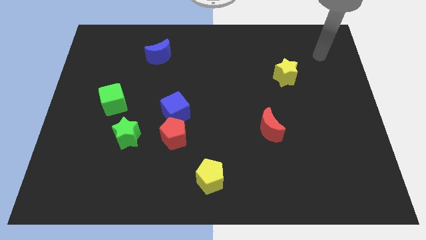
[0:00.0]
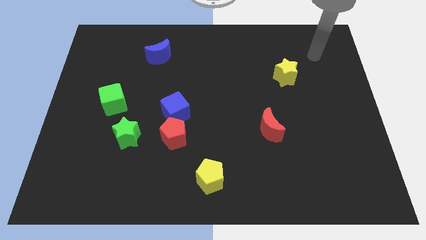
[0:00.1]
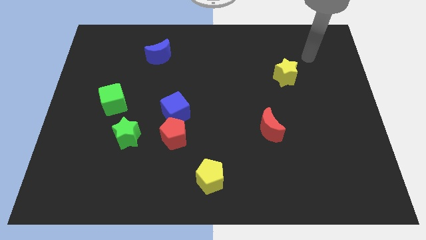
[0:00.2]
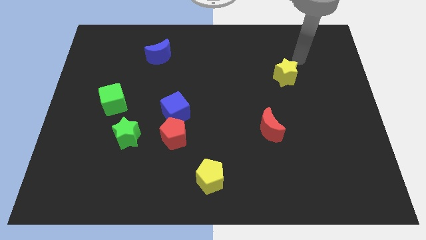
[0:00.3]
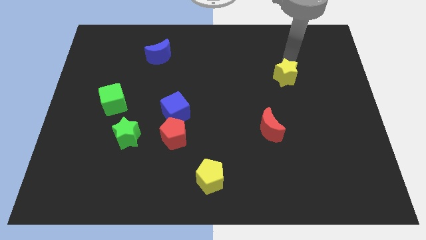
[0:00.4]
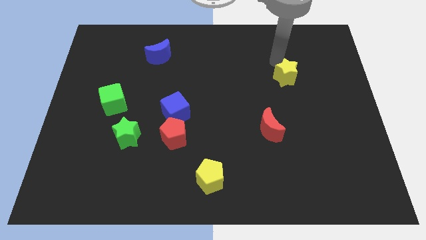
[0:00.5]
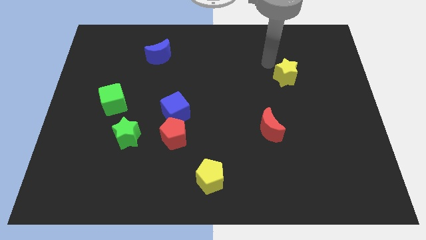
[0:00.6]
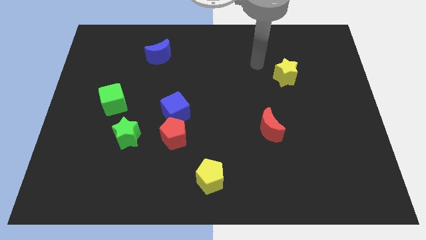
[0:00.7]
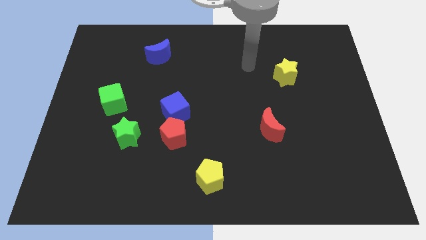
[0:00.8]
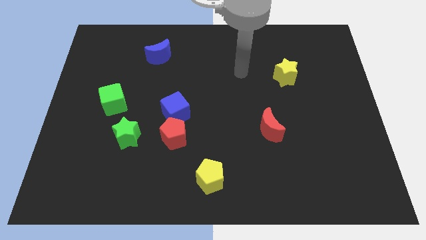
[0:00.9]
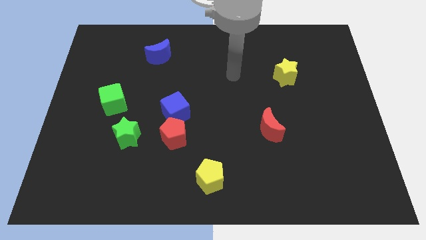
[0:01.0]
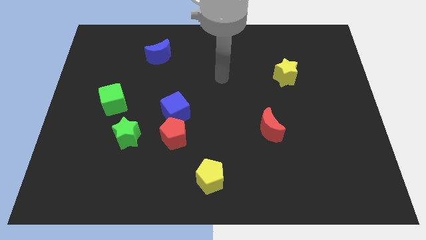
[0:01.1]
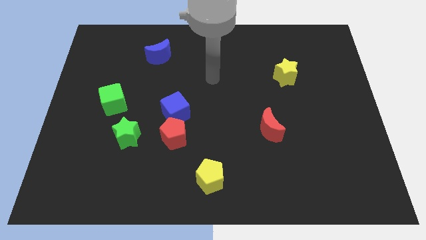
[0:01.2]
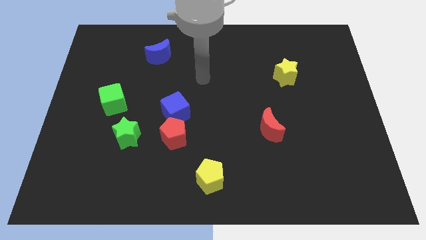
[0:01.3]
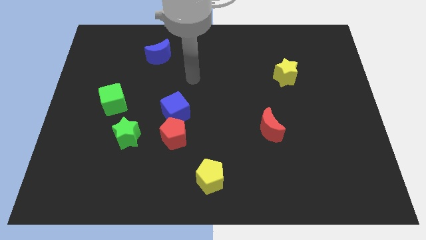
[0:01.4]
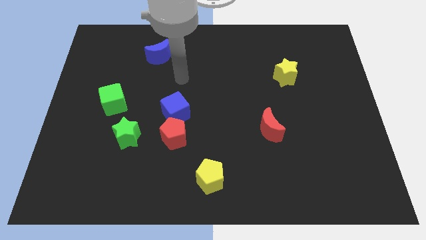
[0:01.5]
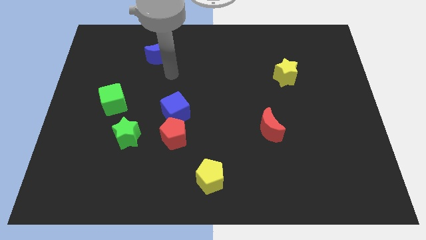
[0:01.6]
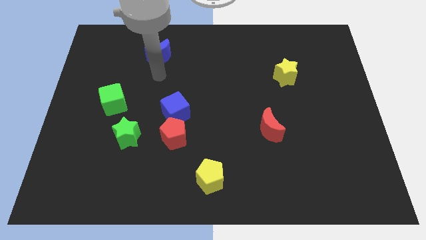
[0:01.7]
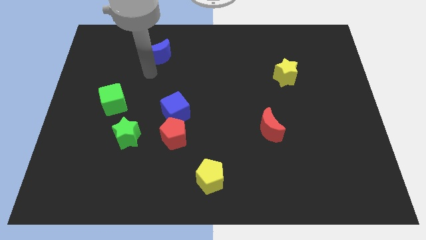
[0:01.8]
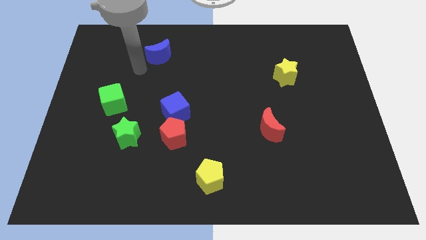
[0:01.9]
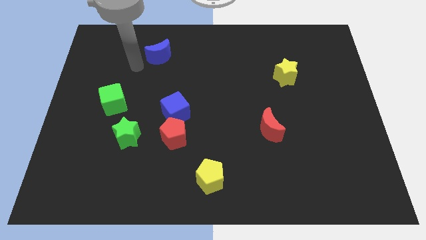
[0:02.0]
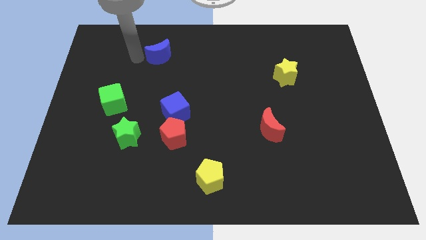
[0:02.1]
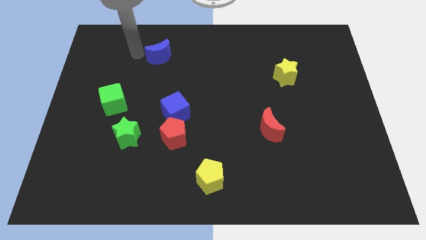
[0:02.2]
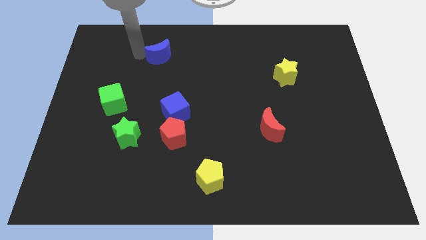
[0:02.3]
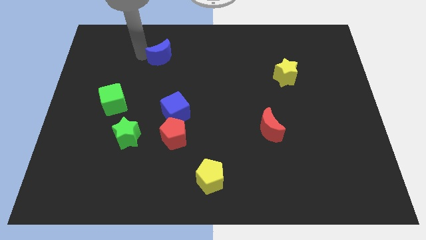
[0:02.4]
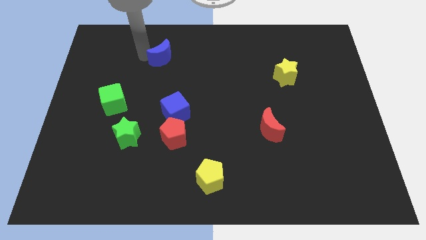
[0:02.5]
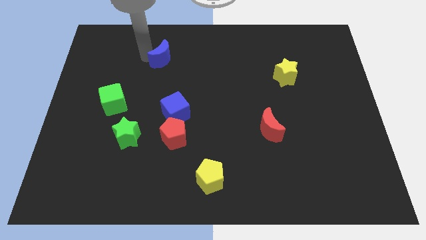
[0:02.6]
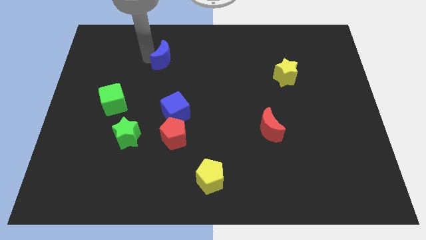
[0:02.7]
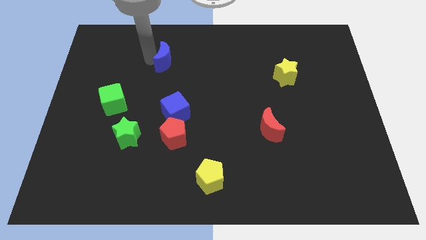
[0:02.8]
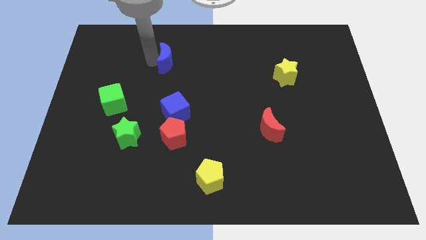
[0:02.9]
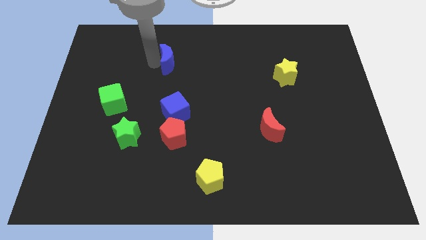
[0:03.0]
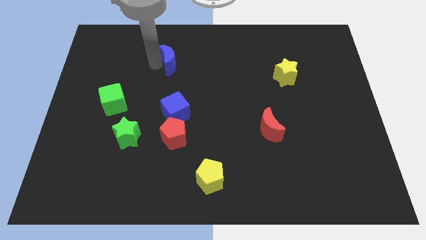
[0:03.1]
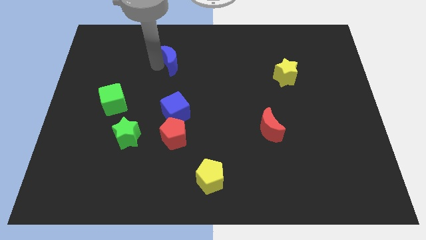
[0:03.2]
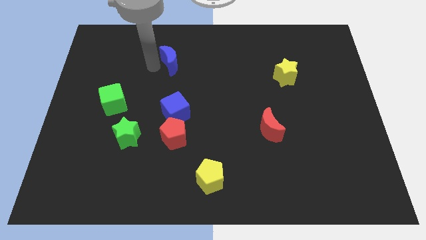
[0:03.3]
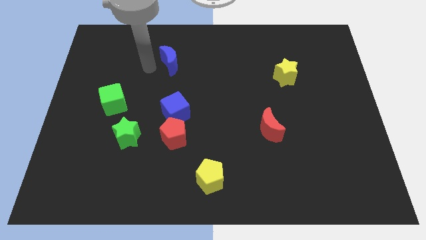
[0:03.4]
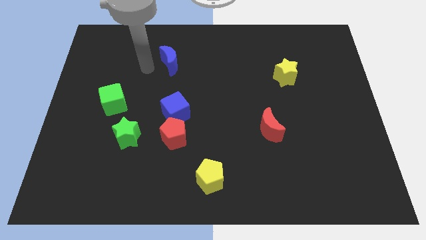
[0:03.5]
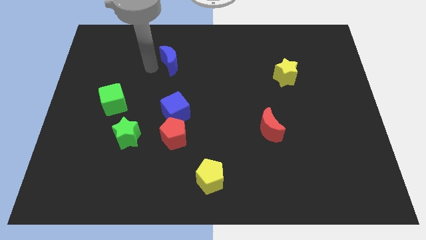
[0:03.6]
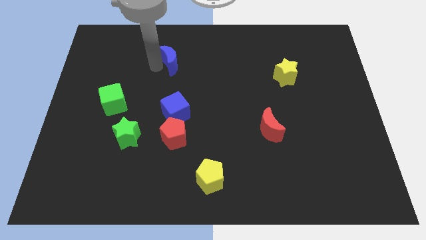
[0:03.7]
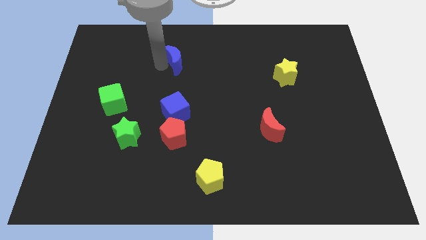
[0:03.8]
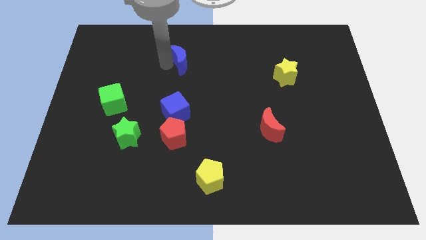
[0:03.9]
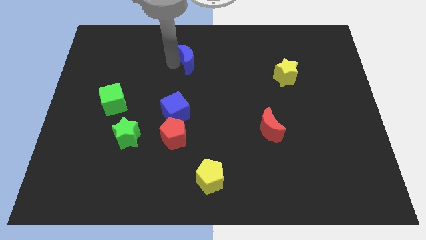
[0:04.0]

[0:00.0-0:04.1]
slightly move the blue moon to the right

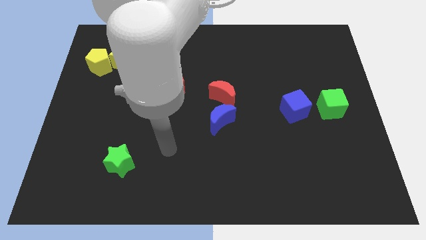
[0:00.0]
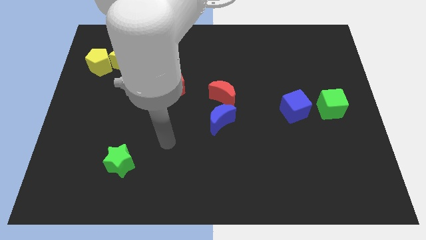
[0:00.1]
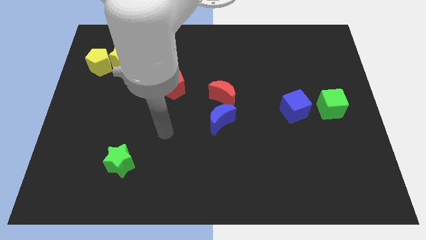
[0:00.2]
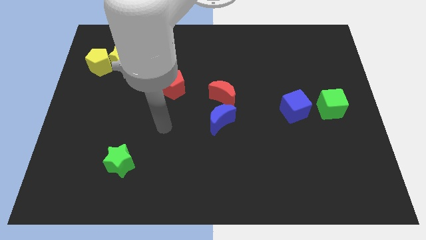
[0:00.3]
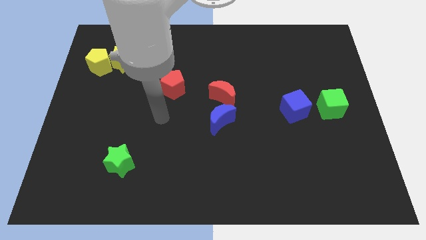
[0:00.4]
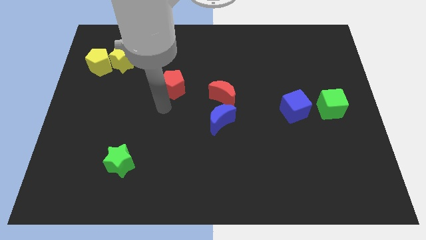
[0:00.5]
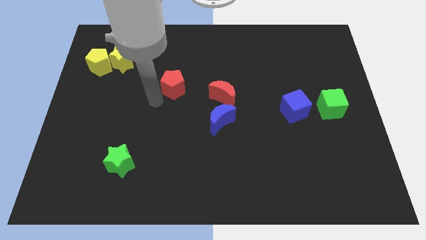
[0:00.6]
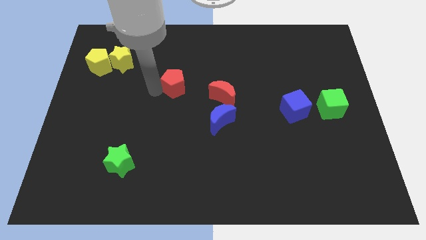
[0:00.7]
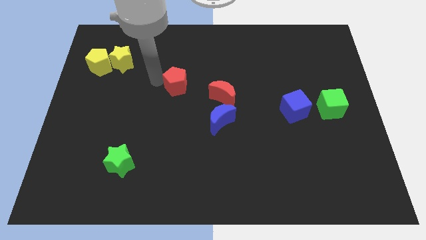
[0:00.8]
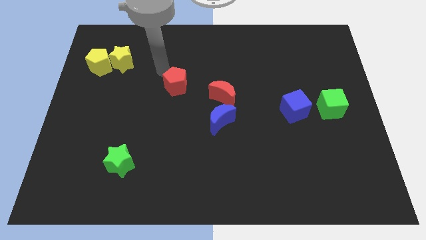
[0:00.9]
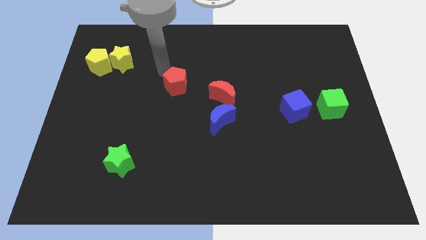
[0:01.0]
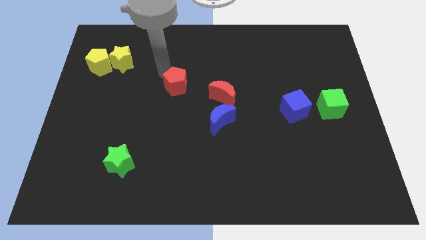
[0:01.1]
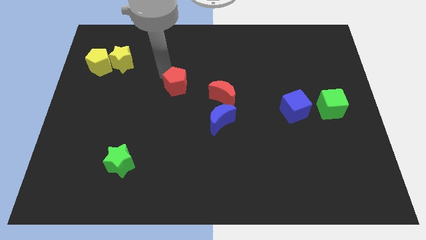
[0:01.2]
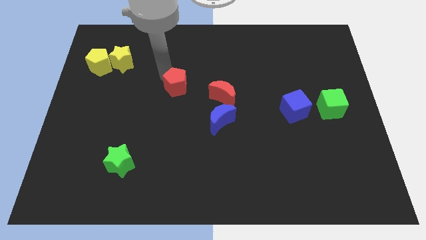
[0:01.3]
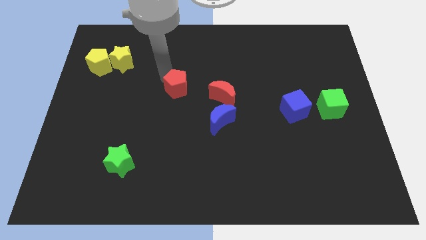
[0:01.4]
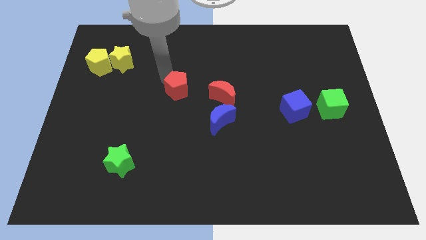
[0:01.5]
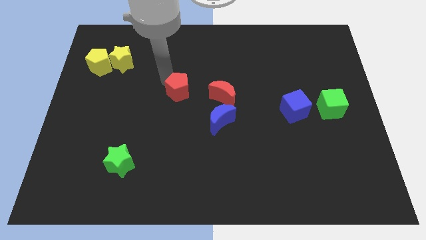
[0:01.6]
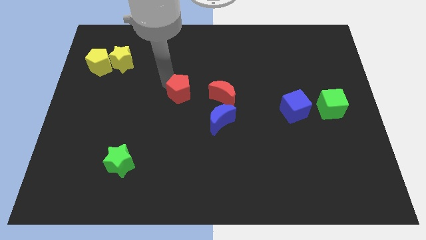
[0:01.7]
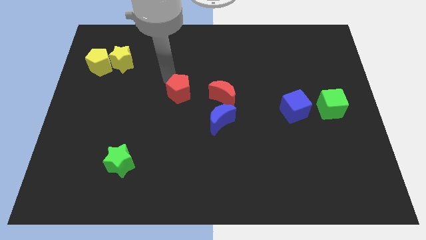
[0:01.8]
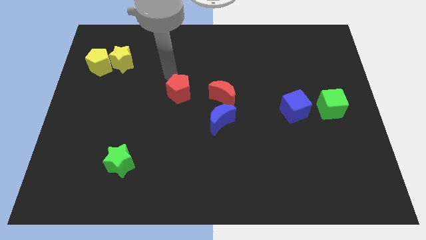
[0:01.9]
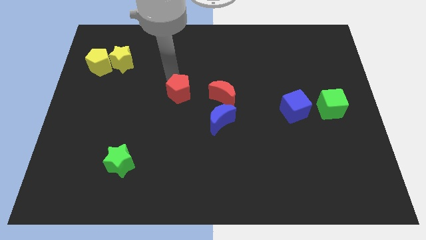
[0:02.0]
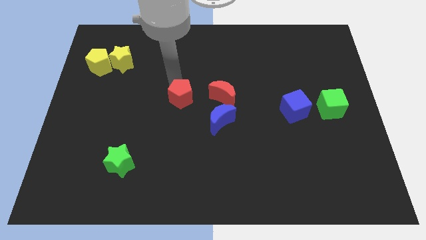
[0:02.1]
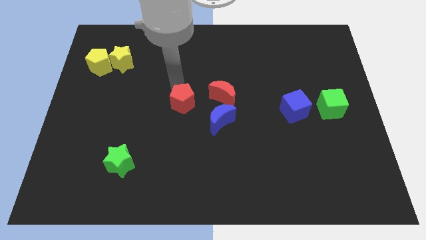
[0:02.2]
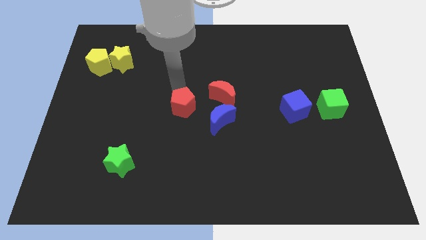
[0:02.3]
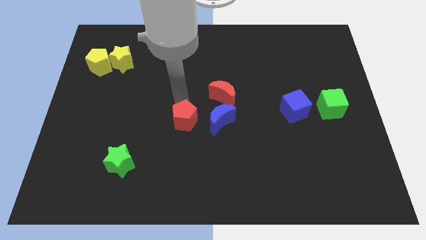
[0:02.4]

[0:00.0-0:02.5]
slightly push the red pentagon down and then right

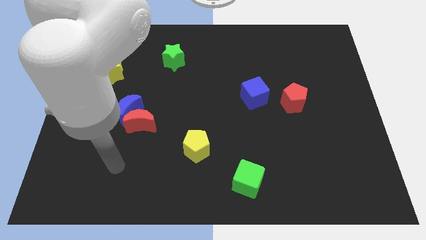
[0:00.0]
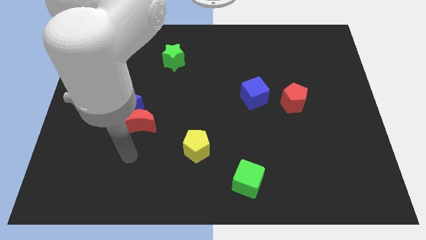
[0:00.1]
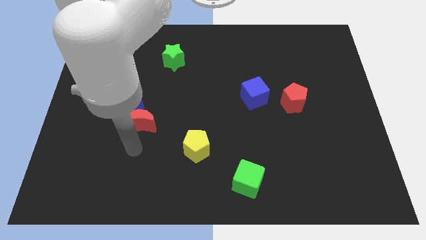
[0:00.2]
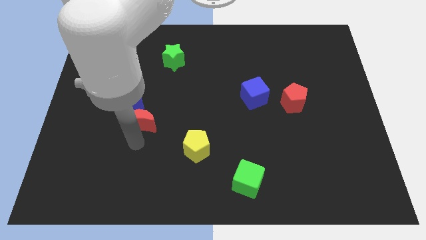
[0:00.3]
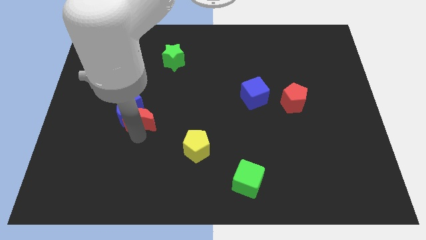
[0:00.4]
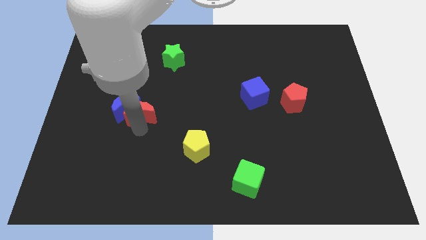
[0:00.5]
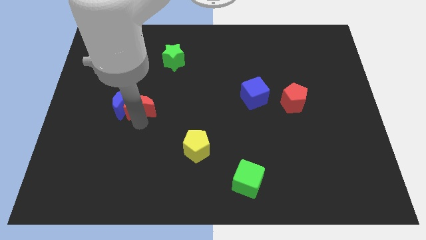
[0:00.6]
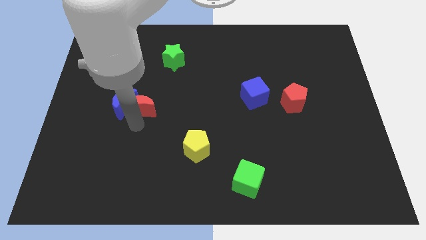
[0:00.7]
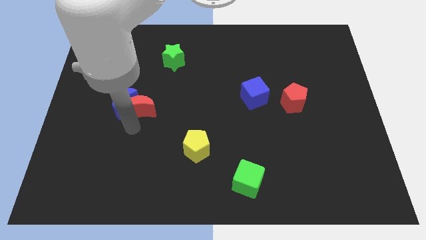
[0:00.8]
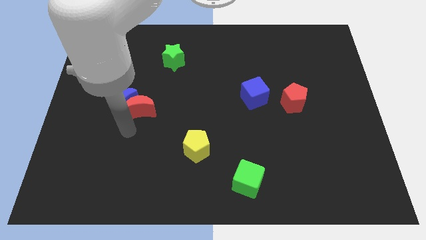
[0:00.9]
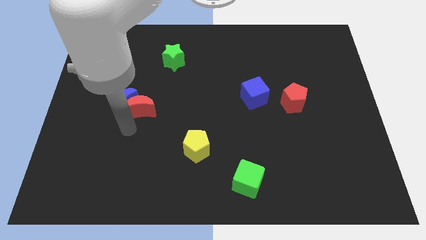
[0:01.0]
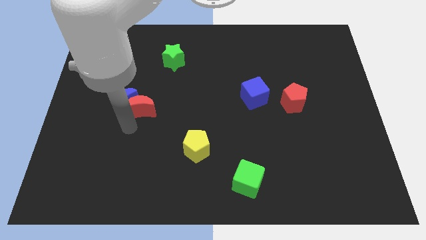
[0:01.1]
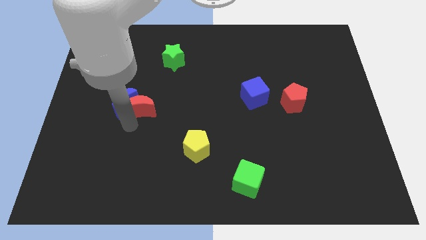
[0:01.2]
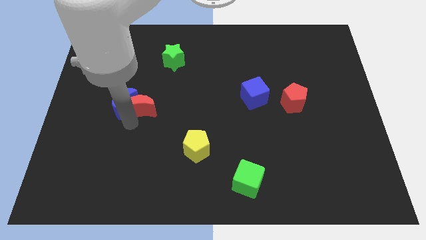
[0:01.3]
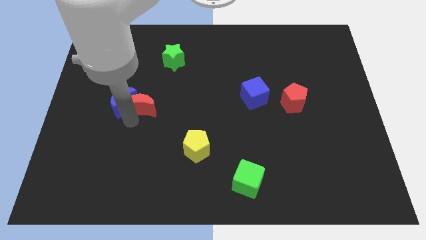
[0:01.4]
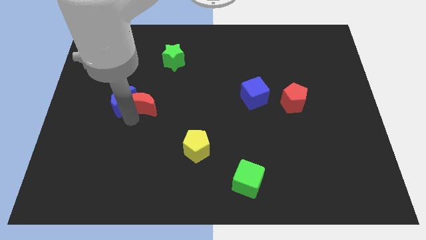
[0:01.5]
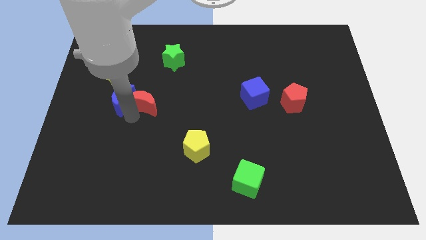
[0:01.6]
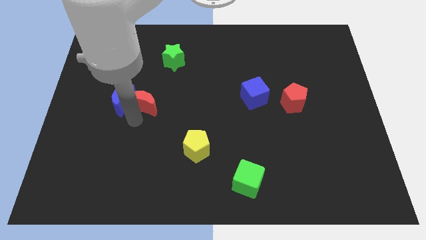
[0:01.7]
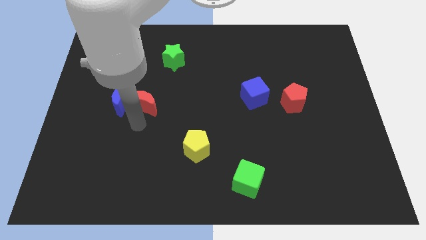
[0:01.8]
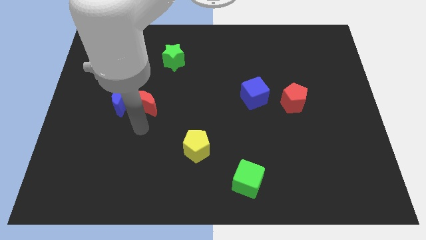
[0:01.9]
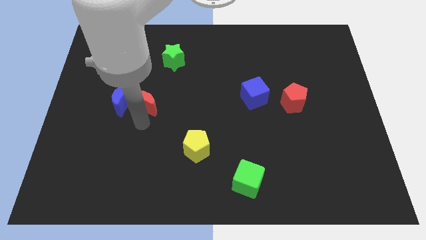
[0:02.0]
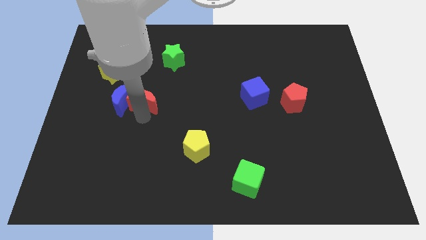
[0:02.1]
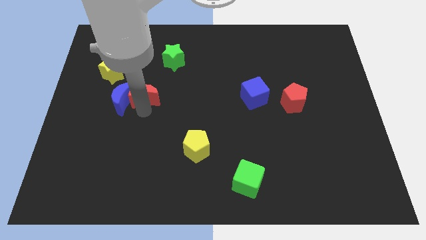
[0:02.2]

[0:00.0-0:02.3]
slide the red moon up a little bit
